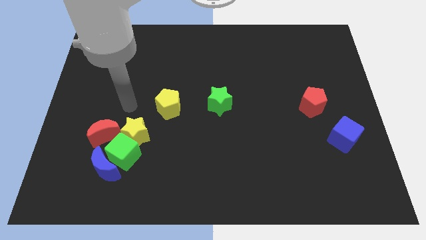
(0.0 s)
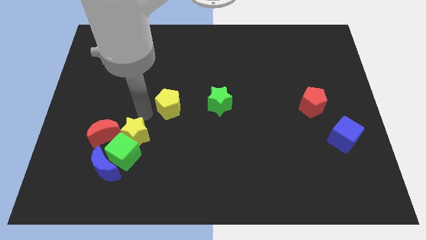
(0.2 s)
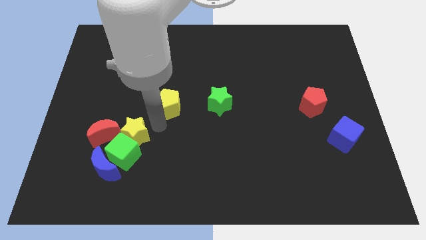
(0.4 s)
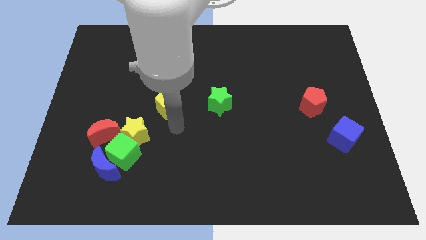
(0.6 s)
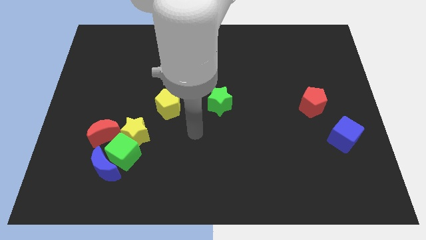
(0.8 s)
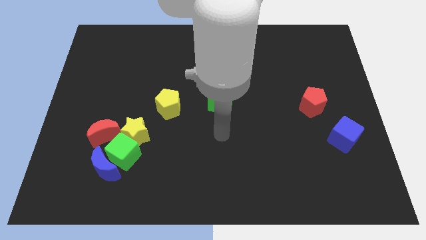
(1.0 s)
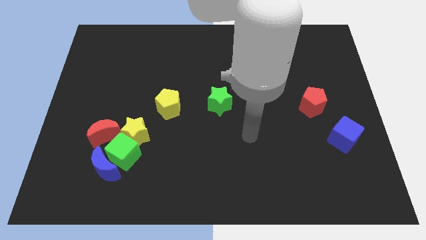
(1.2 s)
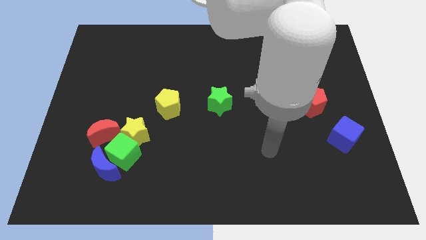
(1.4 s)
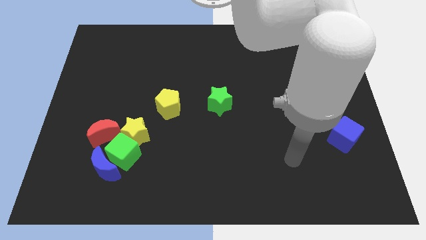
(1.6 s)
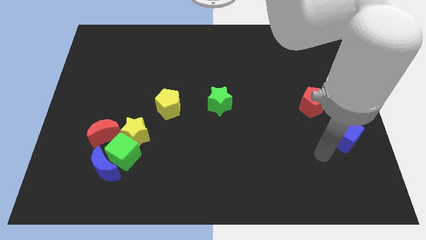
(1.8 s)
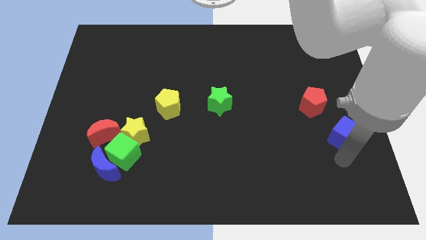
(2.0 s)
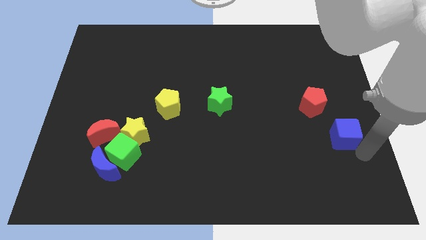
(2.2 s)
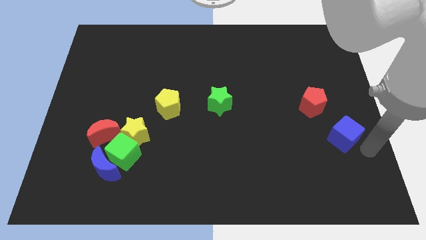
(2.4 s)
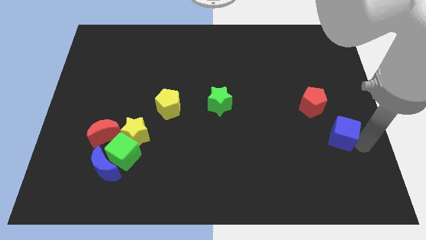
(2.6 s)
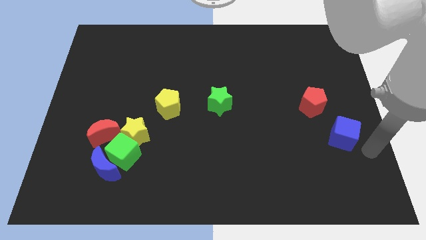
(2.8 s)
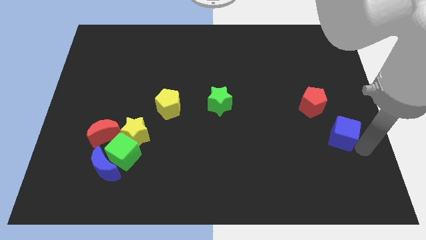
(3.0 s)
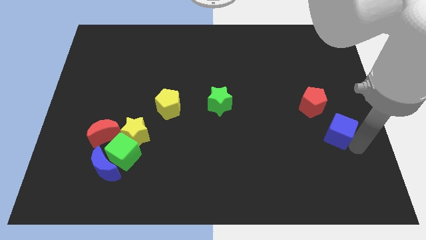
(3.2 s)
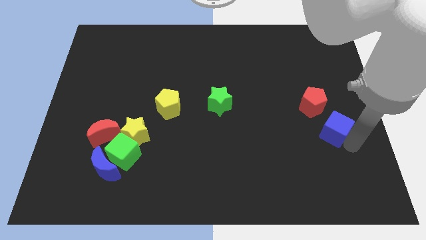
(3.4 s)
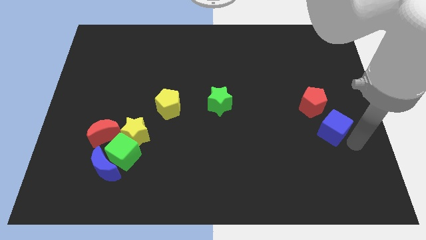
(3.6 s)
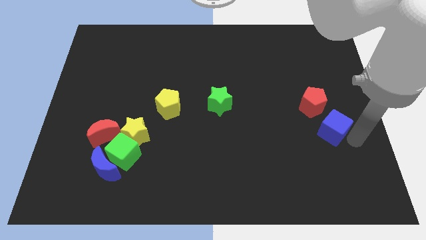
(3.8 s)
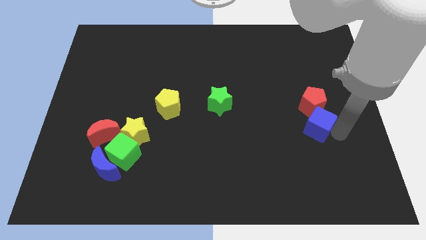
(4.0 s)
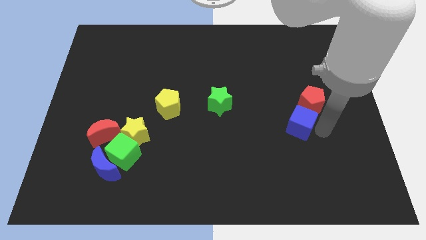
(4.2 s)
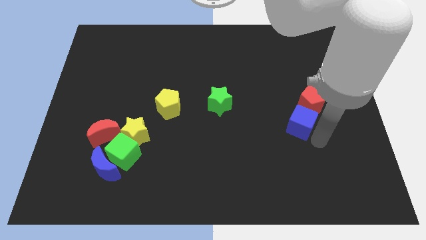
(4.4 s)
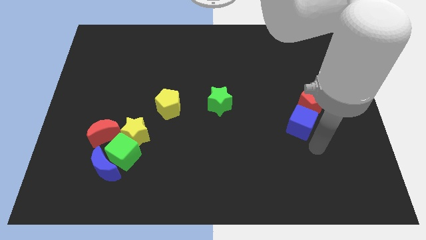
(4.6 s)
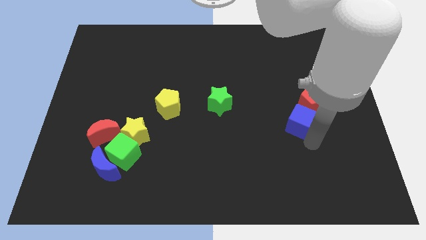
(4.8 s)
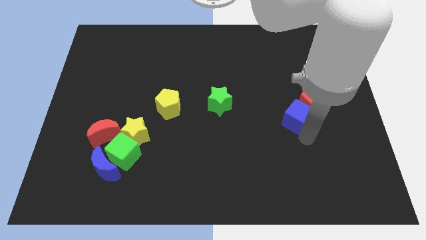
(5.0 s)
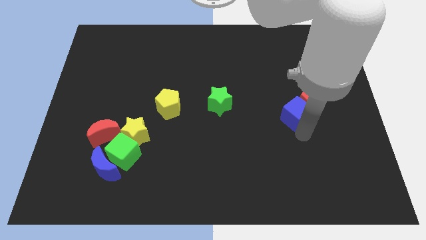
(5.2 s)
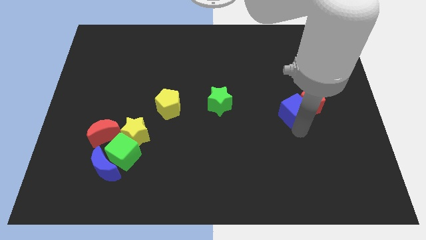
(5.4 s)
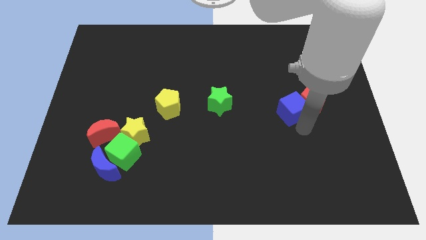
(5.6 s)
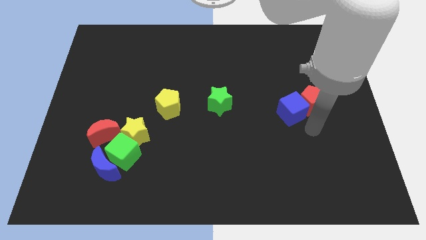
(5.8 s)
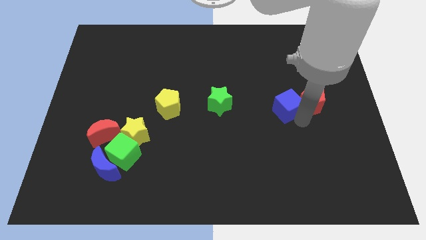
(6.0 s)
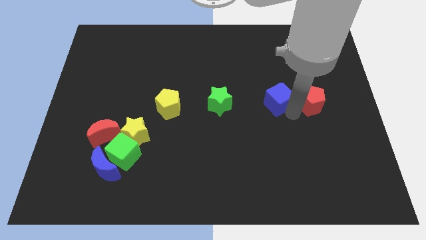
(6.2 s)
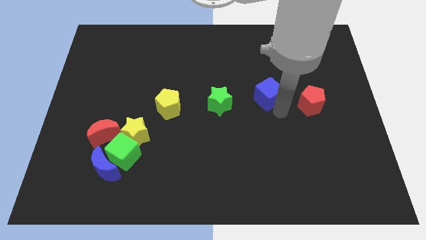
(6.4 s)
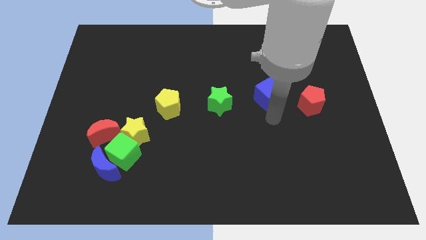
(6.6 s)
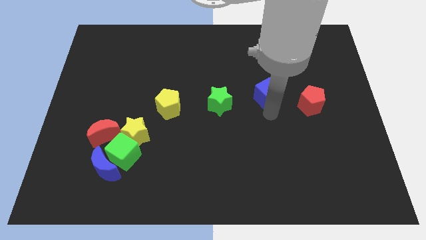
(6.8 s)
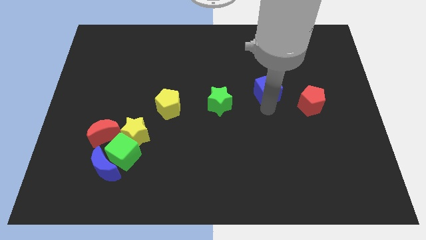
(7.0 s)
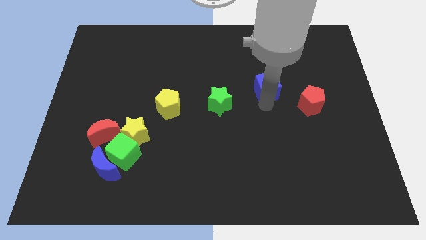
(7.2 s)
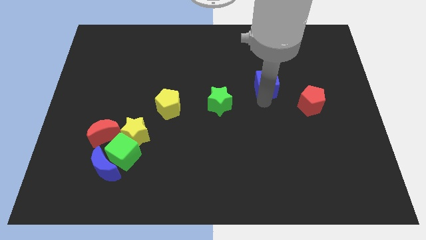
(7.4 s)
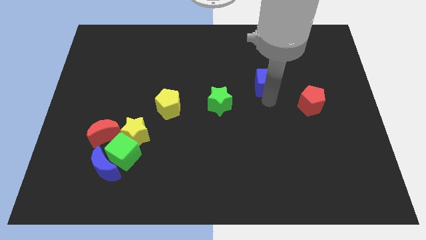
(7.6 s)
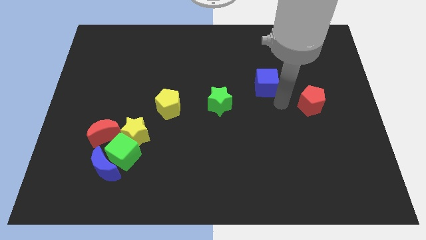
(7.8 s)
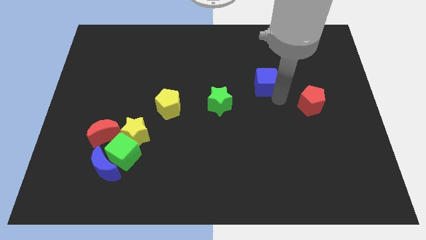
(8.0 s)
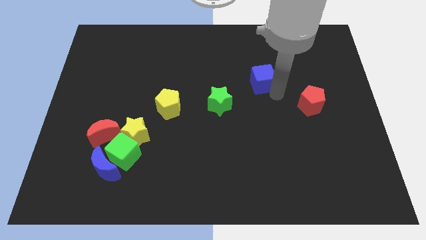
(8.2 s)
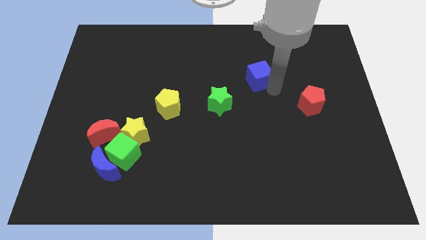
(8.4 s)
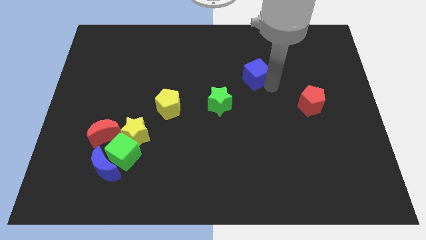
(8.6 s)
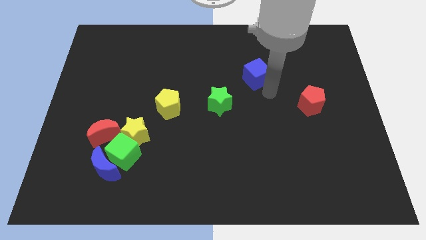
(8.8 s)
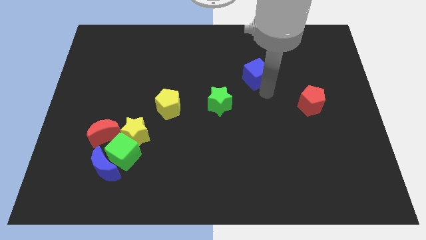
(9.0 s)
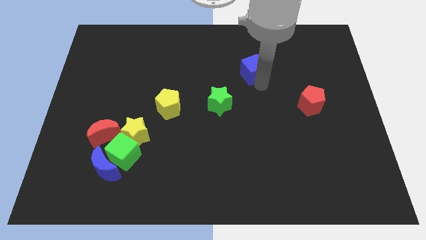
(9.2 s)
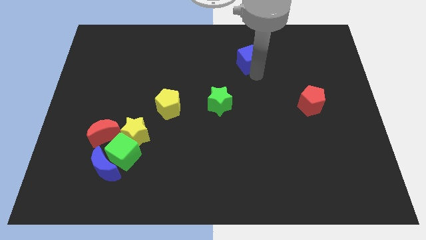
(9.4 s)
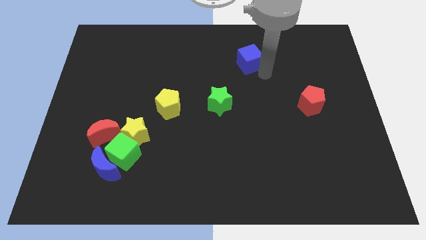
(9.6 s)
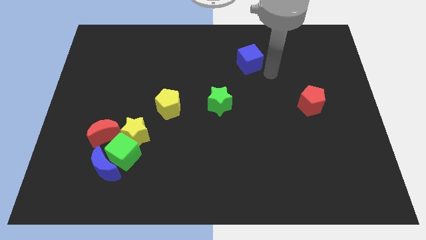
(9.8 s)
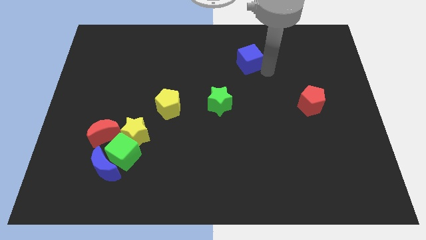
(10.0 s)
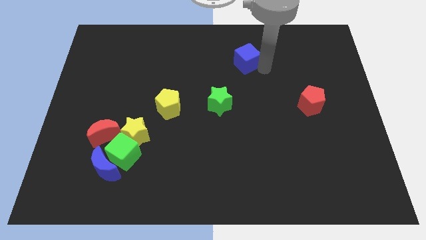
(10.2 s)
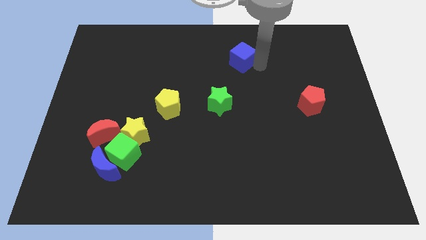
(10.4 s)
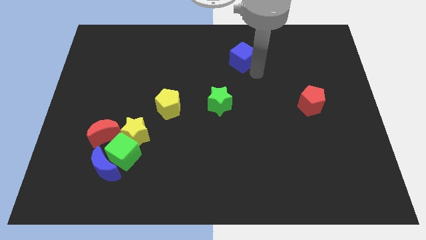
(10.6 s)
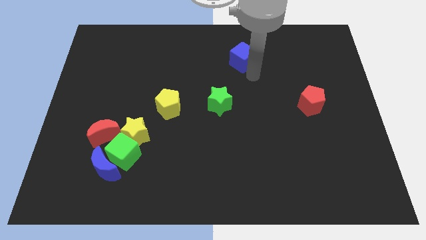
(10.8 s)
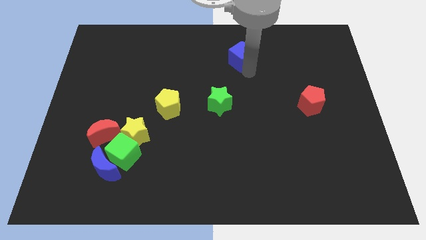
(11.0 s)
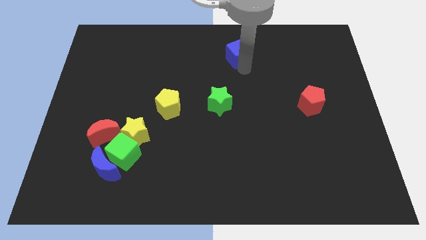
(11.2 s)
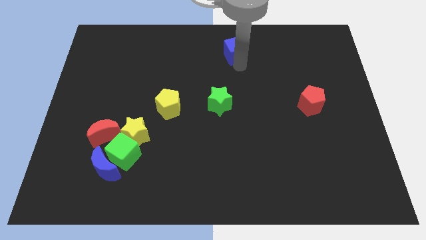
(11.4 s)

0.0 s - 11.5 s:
slide the blue cube to the top side
